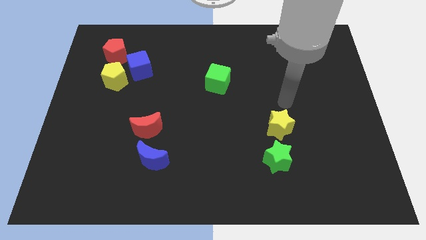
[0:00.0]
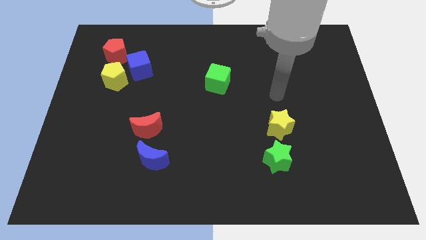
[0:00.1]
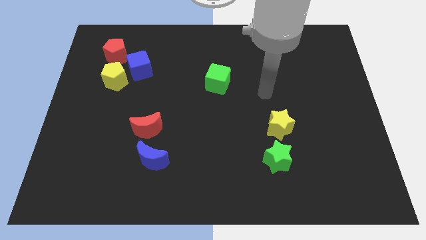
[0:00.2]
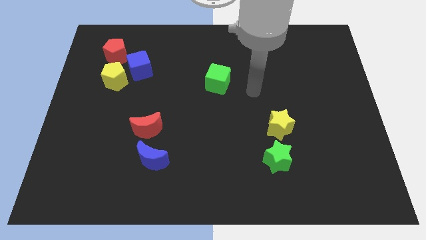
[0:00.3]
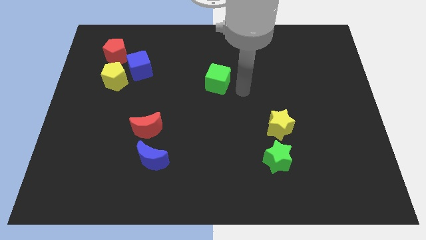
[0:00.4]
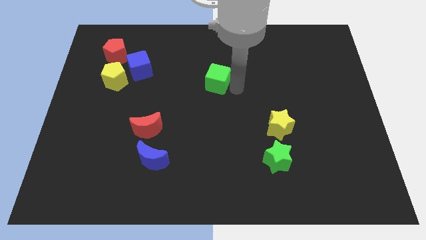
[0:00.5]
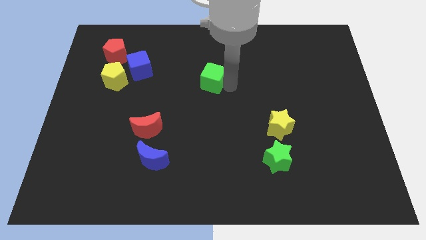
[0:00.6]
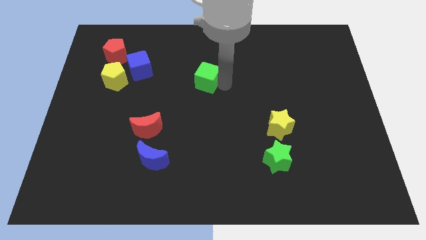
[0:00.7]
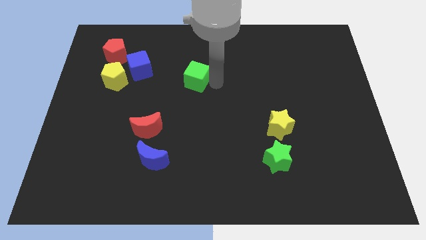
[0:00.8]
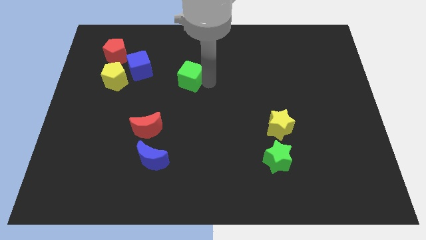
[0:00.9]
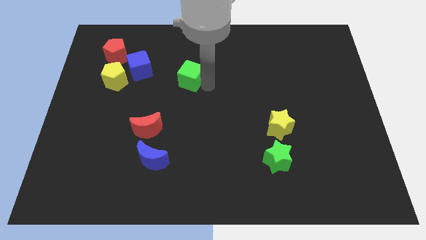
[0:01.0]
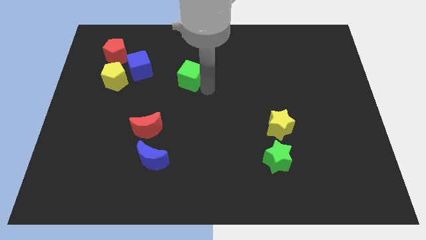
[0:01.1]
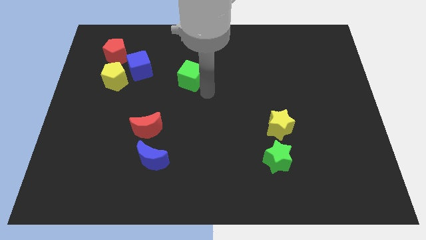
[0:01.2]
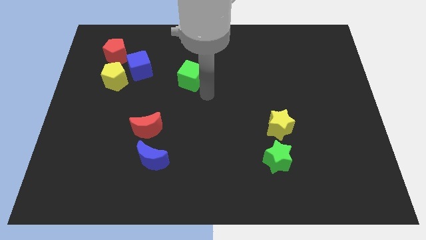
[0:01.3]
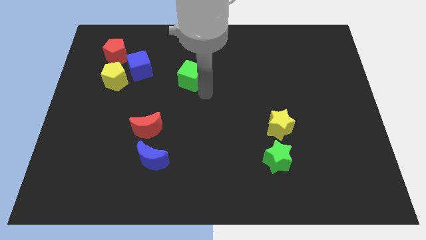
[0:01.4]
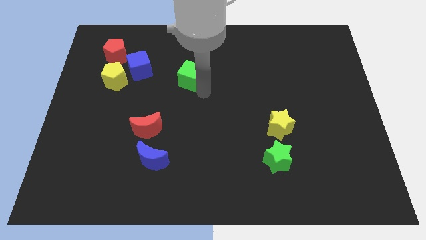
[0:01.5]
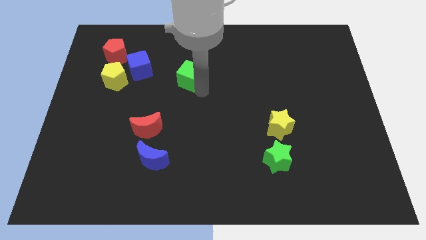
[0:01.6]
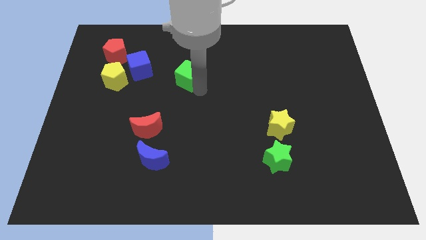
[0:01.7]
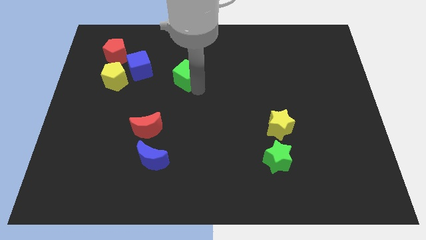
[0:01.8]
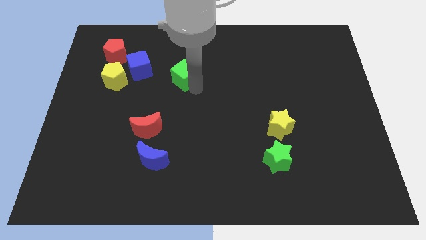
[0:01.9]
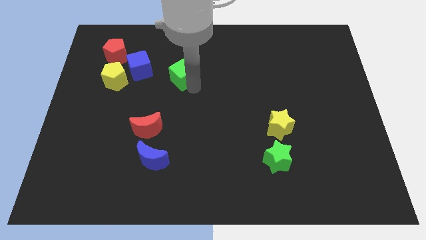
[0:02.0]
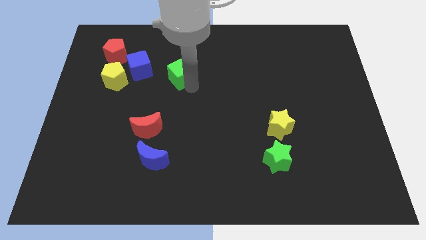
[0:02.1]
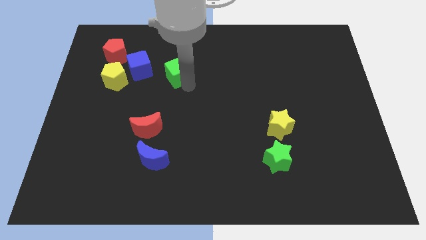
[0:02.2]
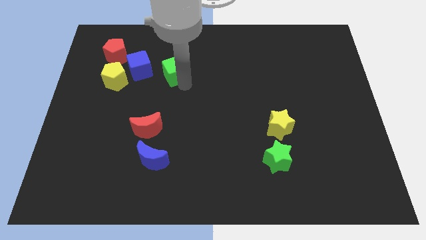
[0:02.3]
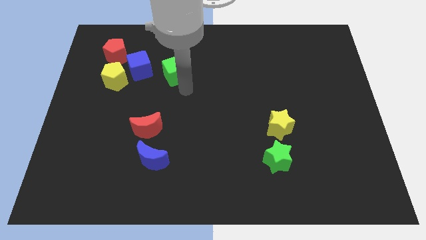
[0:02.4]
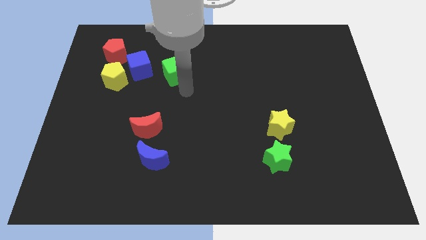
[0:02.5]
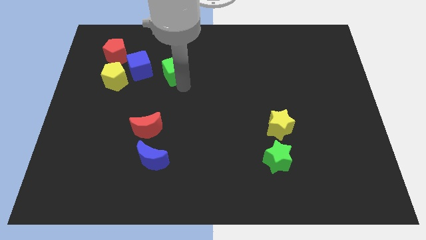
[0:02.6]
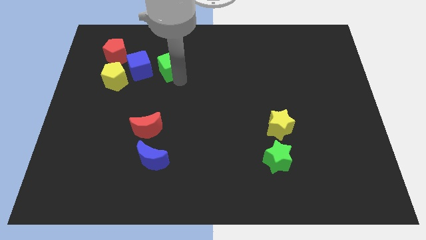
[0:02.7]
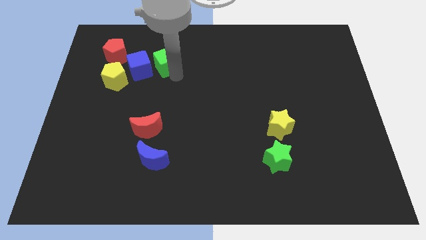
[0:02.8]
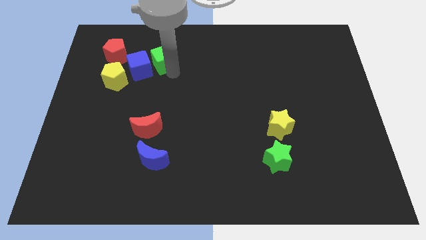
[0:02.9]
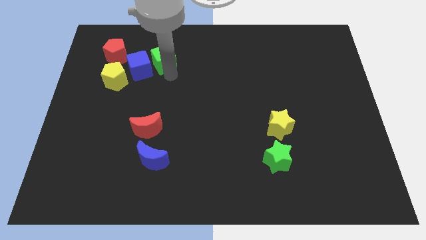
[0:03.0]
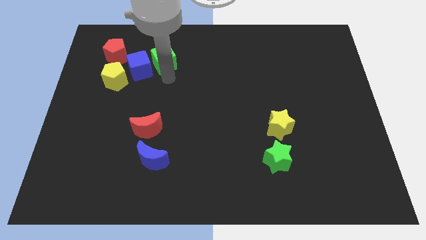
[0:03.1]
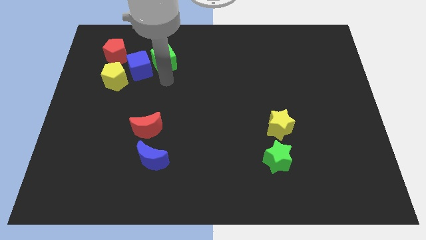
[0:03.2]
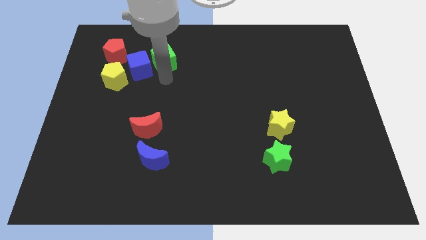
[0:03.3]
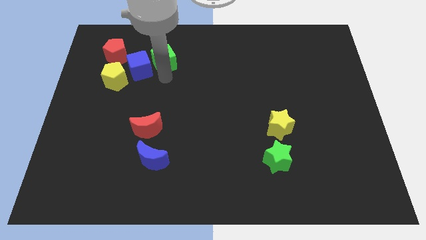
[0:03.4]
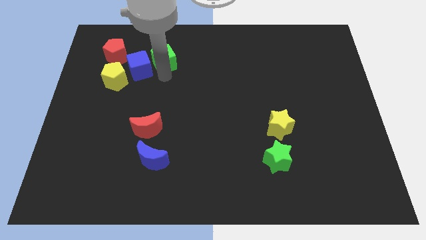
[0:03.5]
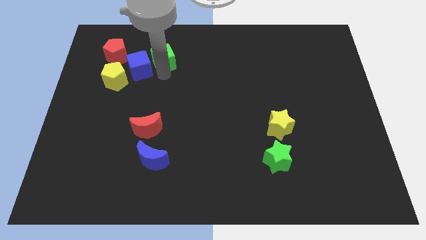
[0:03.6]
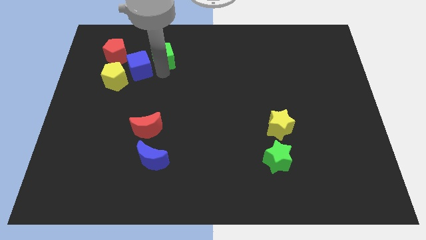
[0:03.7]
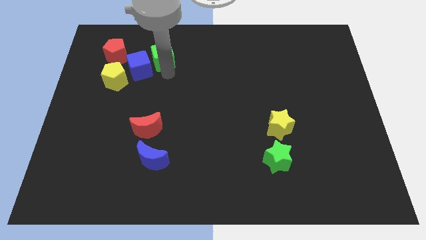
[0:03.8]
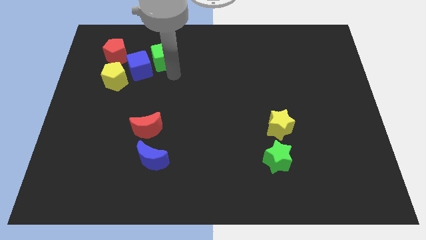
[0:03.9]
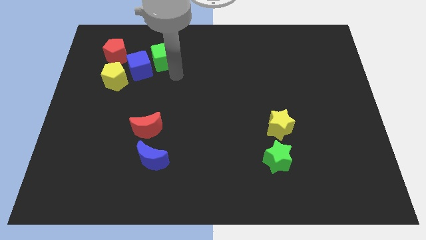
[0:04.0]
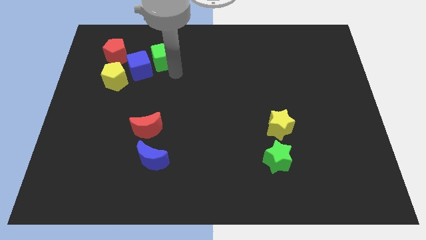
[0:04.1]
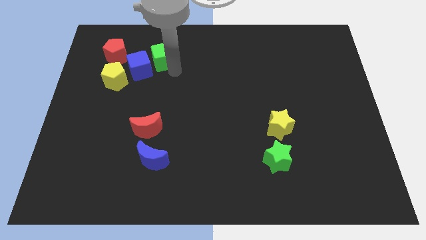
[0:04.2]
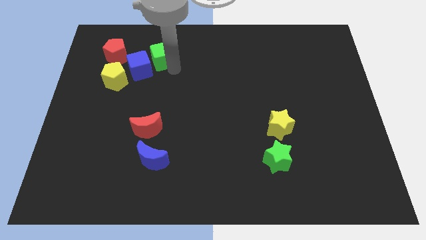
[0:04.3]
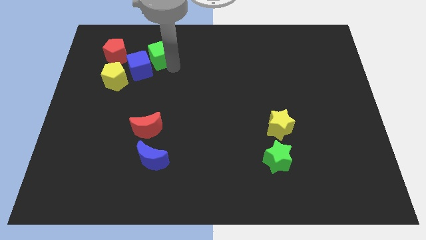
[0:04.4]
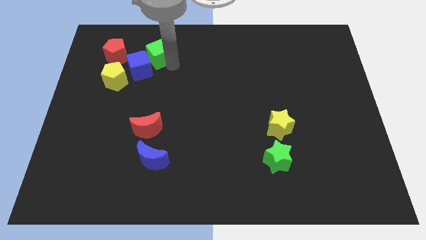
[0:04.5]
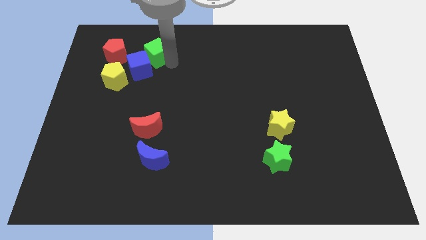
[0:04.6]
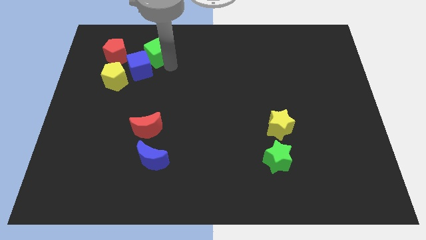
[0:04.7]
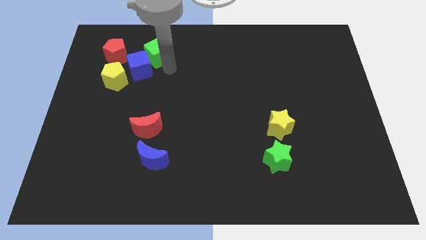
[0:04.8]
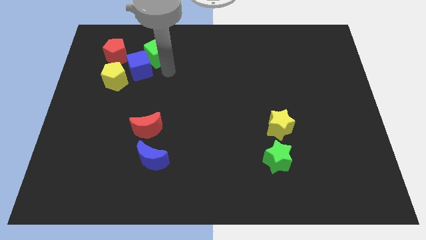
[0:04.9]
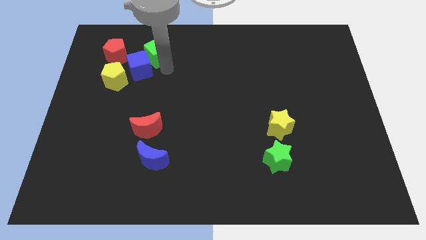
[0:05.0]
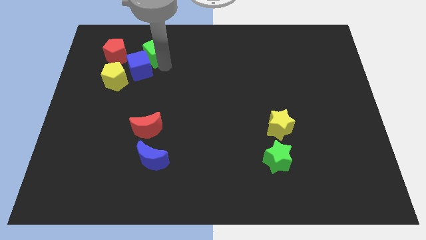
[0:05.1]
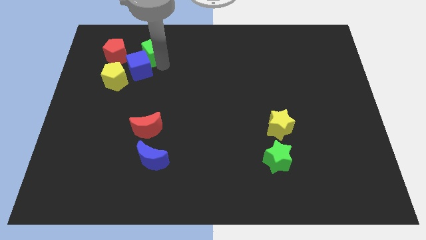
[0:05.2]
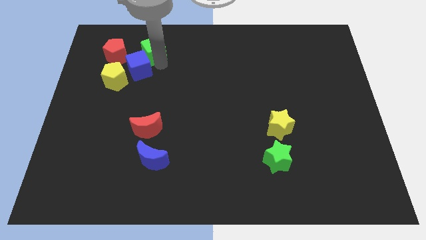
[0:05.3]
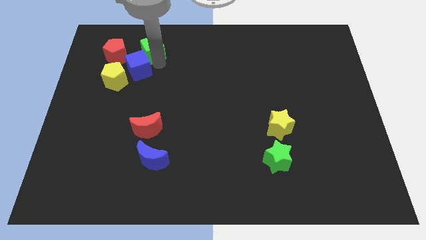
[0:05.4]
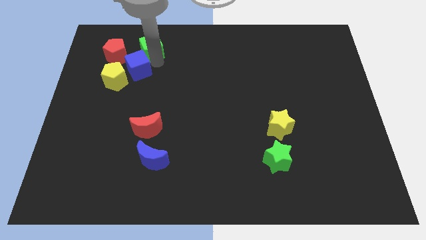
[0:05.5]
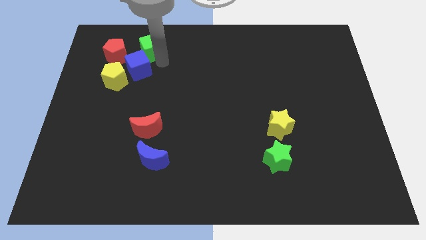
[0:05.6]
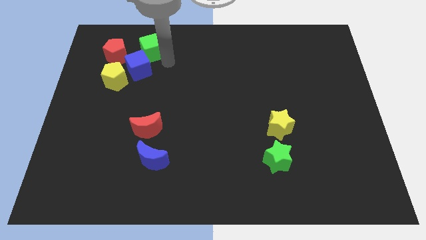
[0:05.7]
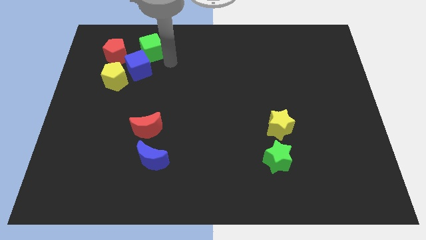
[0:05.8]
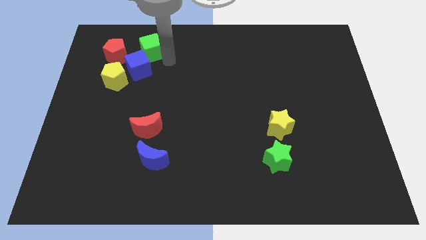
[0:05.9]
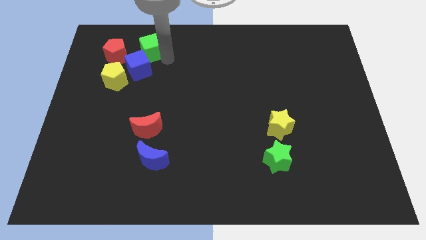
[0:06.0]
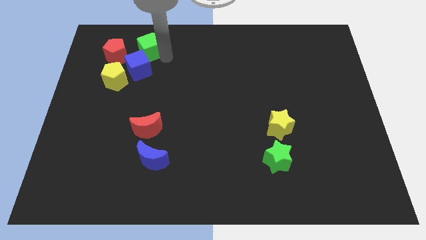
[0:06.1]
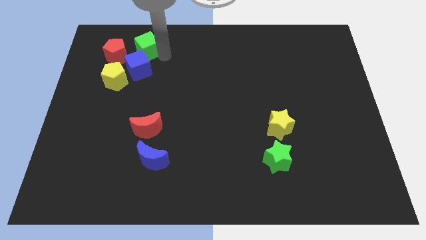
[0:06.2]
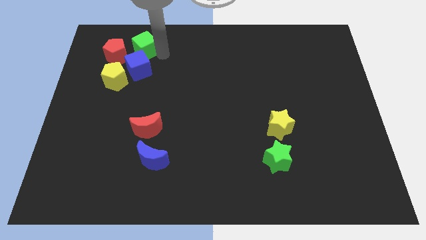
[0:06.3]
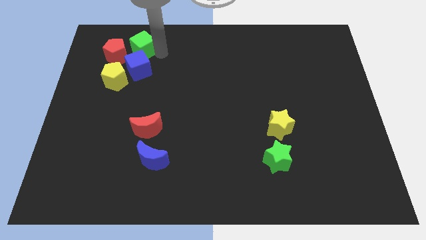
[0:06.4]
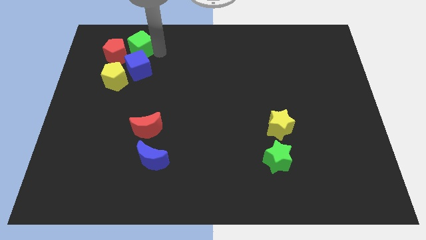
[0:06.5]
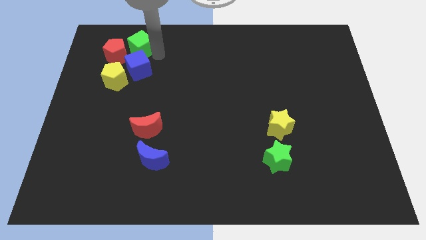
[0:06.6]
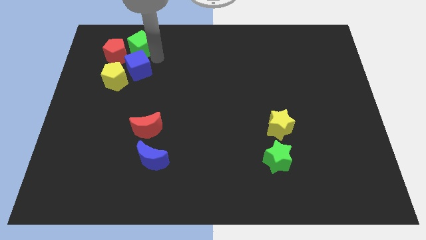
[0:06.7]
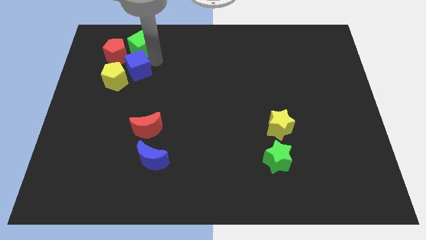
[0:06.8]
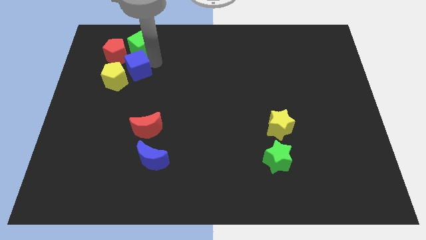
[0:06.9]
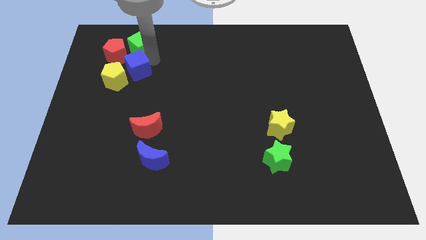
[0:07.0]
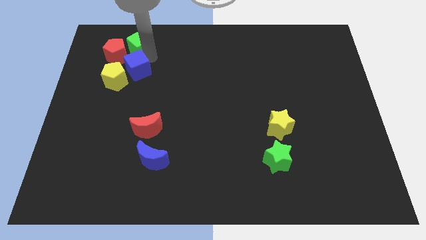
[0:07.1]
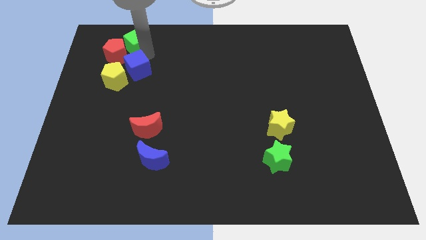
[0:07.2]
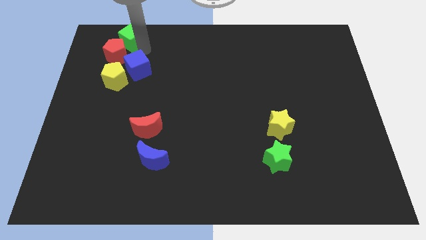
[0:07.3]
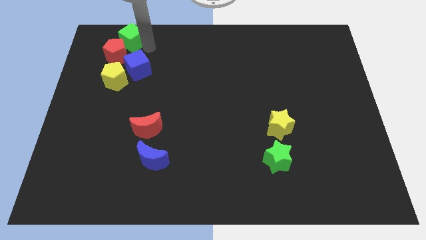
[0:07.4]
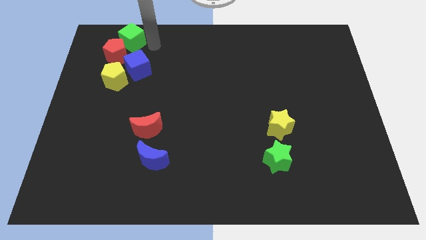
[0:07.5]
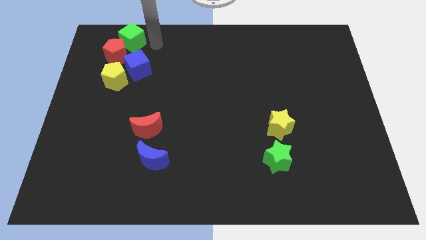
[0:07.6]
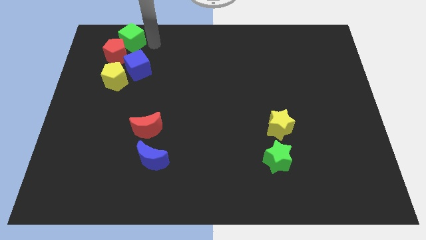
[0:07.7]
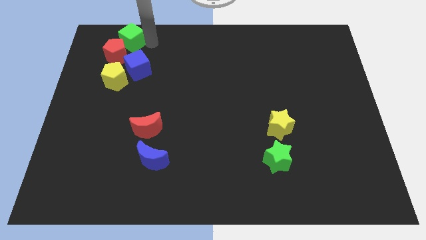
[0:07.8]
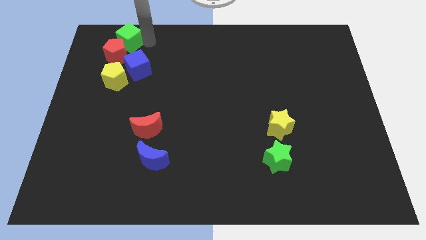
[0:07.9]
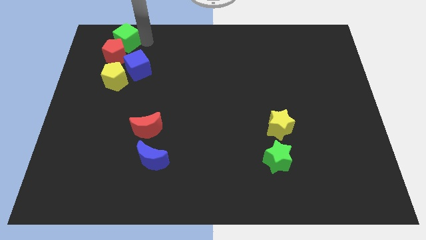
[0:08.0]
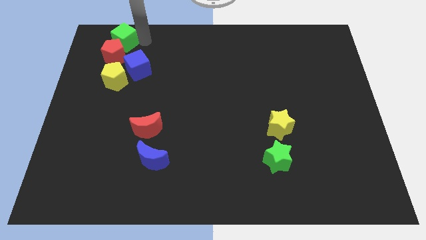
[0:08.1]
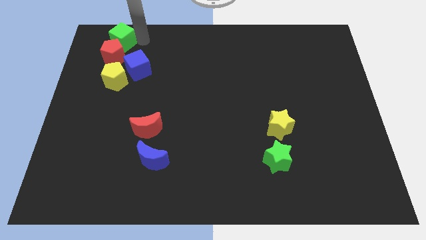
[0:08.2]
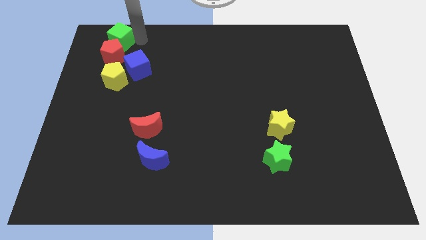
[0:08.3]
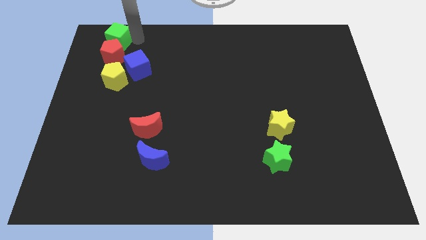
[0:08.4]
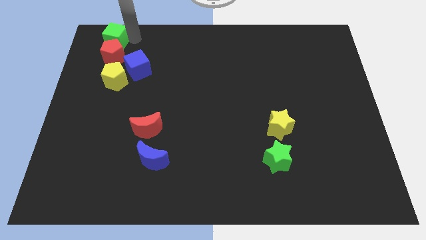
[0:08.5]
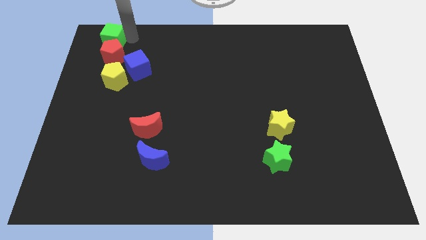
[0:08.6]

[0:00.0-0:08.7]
push the green cube to the top left corner
